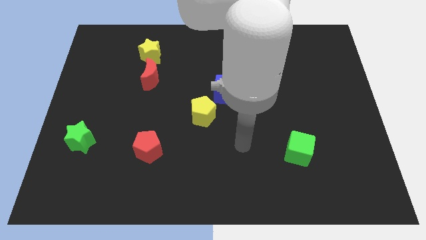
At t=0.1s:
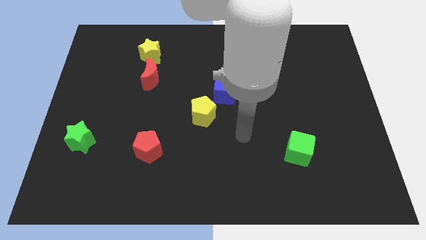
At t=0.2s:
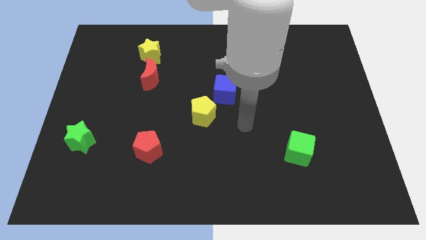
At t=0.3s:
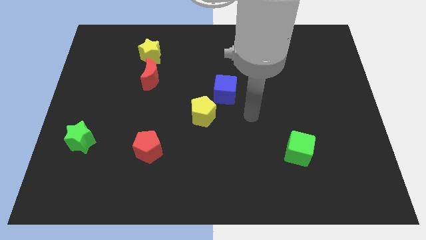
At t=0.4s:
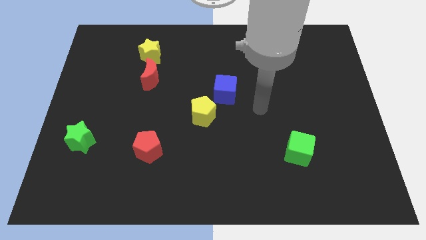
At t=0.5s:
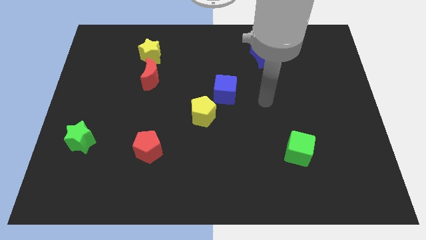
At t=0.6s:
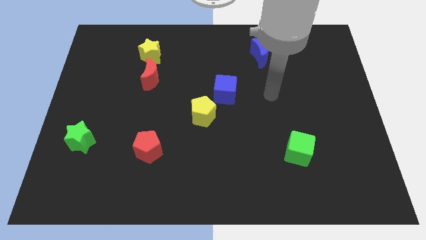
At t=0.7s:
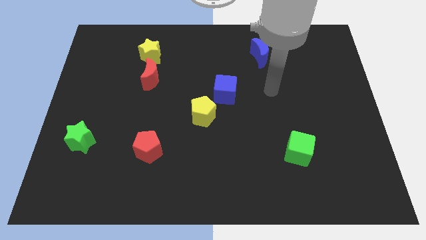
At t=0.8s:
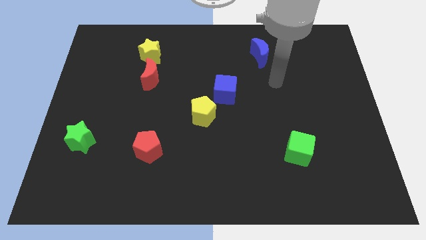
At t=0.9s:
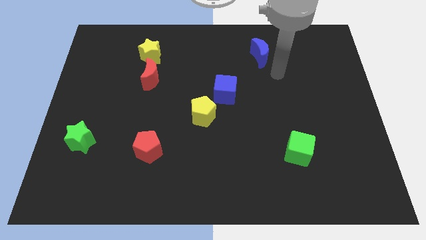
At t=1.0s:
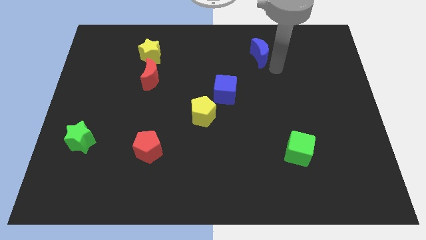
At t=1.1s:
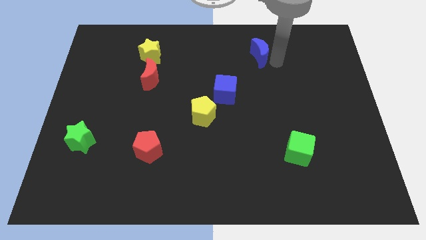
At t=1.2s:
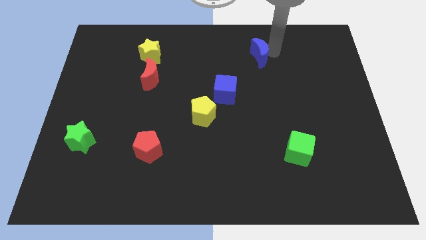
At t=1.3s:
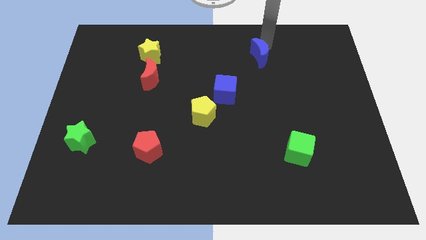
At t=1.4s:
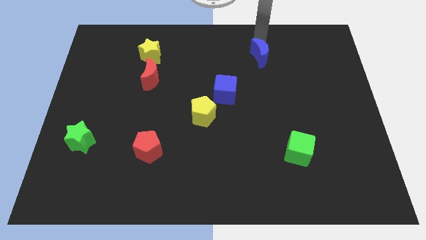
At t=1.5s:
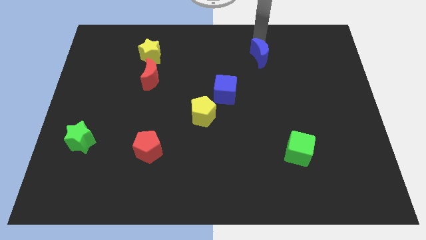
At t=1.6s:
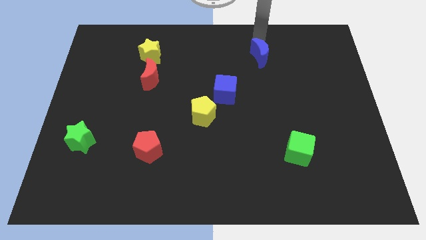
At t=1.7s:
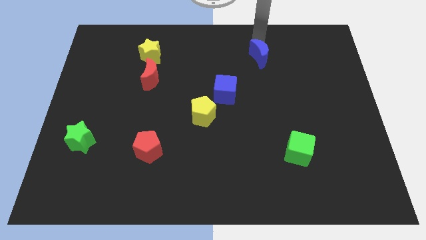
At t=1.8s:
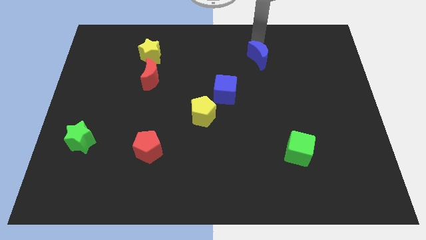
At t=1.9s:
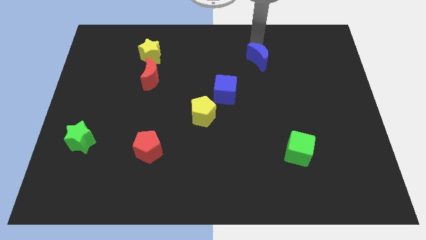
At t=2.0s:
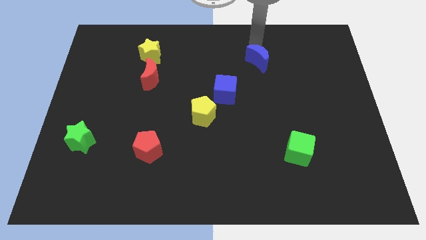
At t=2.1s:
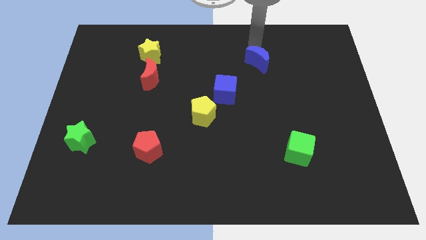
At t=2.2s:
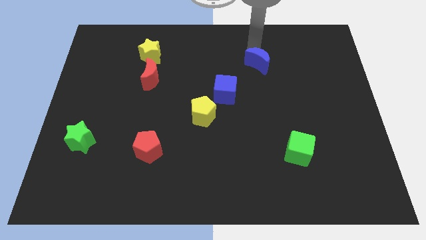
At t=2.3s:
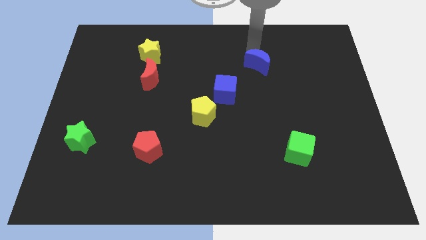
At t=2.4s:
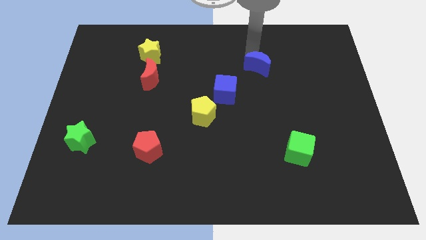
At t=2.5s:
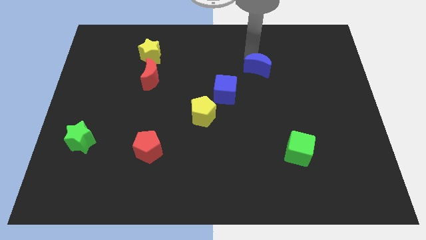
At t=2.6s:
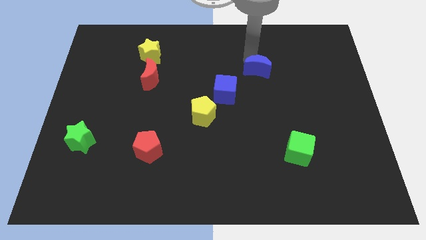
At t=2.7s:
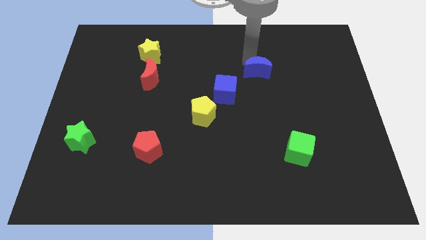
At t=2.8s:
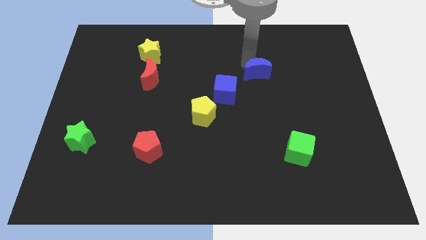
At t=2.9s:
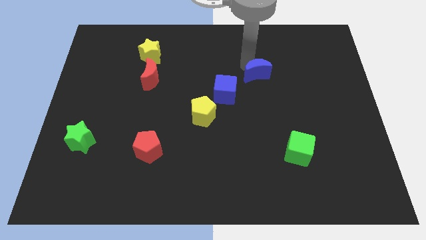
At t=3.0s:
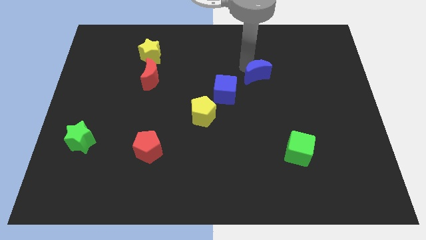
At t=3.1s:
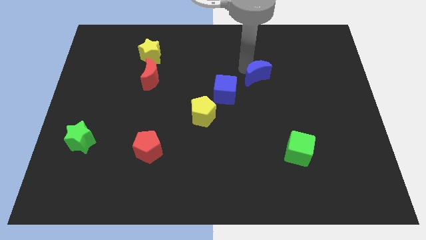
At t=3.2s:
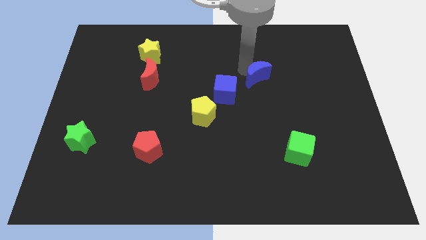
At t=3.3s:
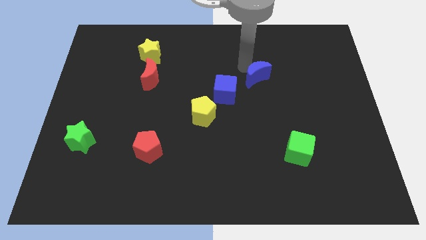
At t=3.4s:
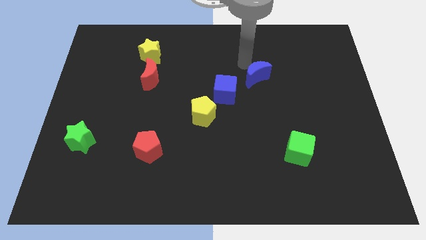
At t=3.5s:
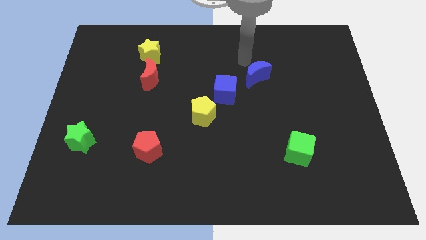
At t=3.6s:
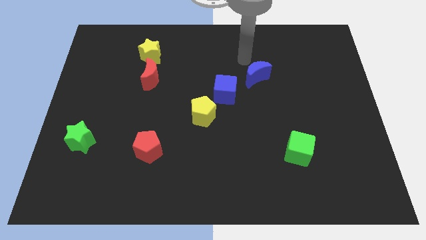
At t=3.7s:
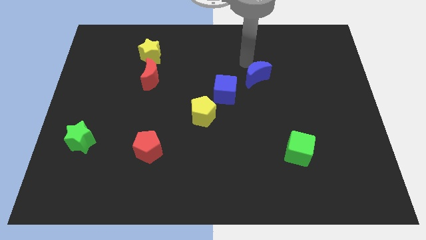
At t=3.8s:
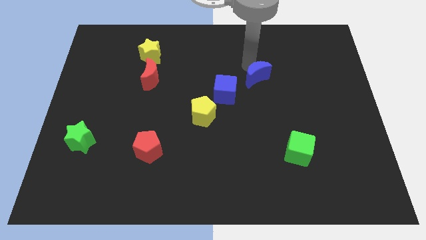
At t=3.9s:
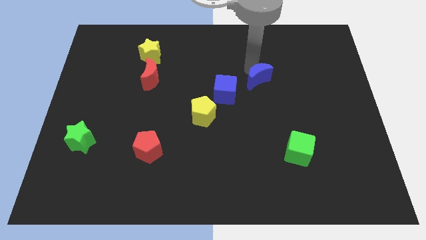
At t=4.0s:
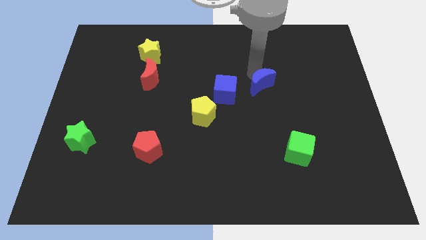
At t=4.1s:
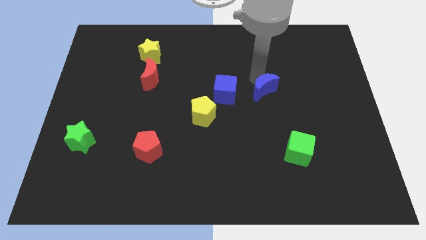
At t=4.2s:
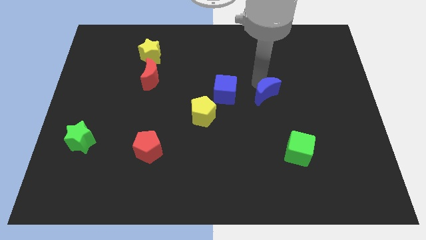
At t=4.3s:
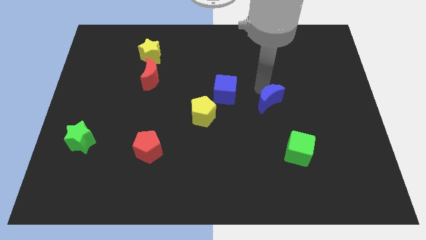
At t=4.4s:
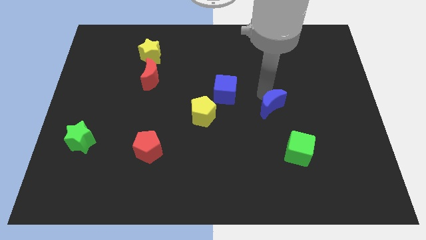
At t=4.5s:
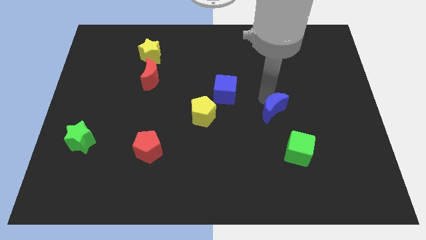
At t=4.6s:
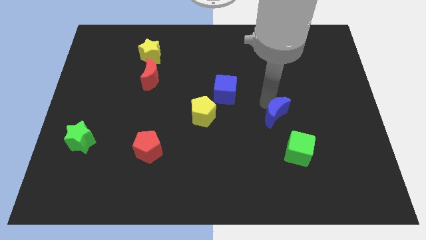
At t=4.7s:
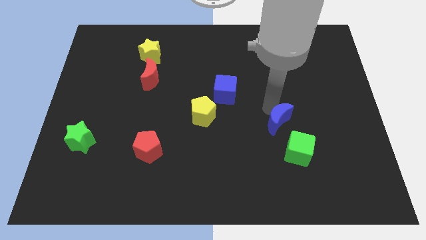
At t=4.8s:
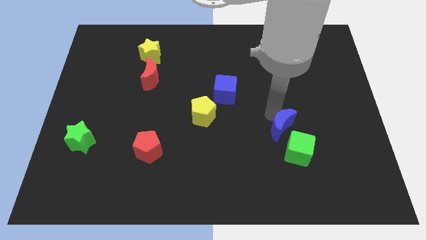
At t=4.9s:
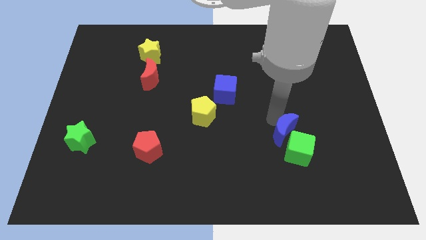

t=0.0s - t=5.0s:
push the blue moon towards the green cube

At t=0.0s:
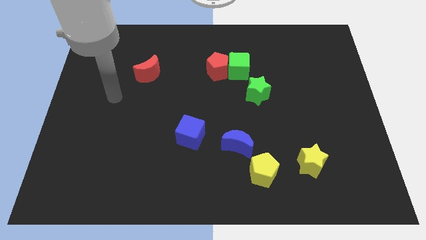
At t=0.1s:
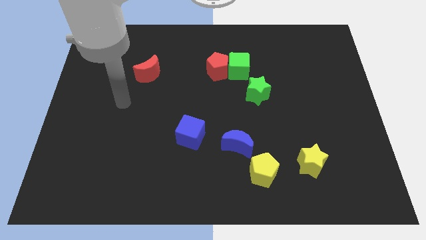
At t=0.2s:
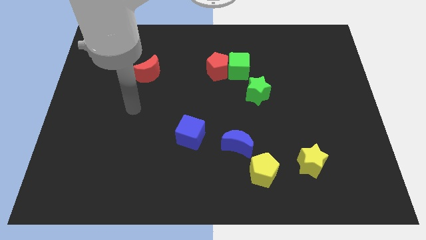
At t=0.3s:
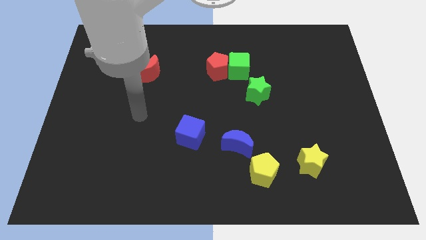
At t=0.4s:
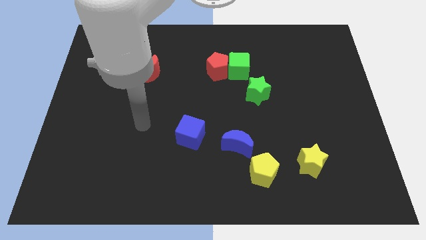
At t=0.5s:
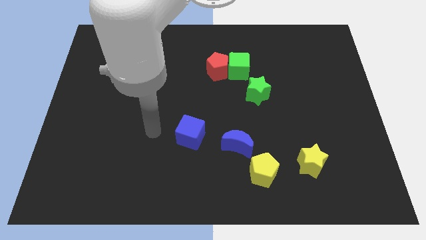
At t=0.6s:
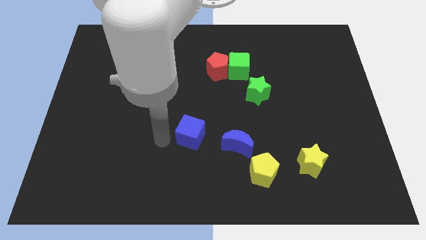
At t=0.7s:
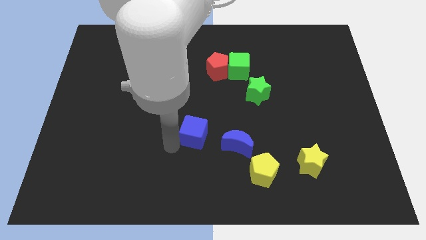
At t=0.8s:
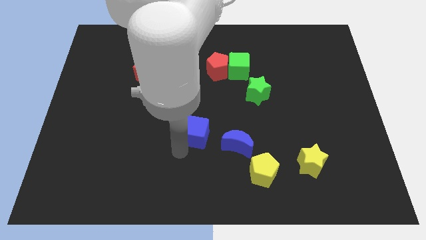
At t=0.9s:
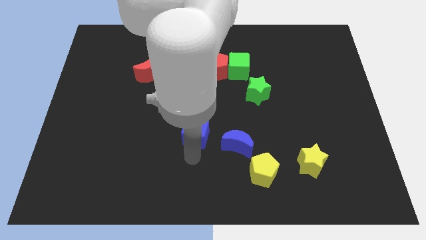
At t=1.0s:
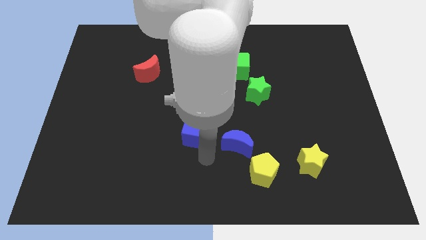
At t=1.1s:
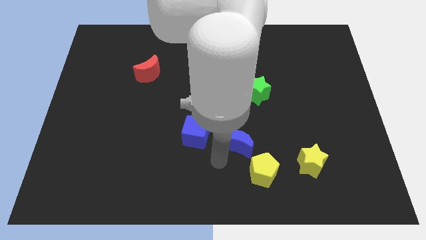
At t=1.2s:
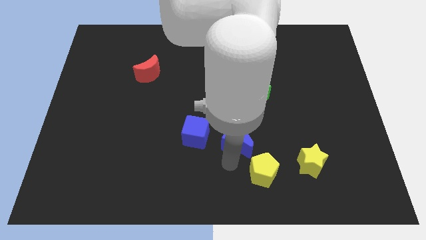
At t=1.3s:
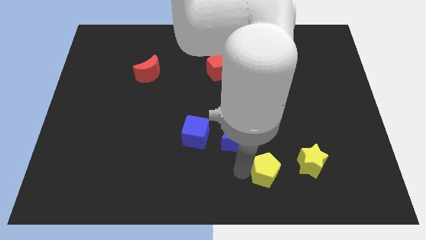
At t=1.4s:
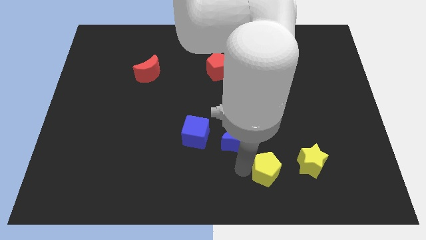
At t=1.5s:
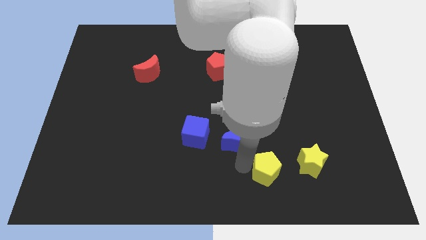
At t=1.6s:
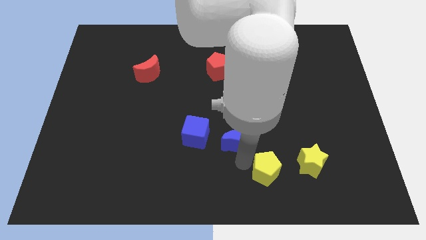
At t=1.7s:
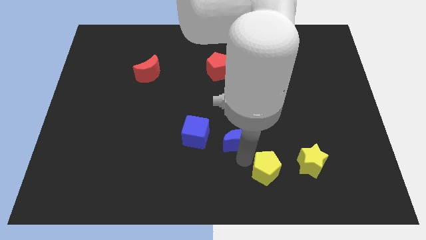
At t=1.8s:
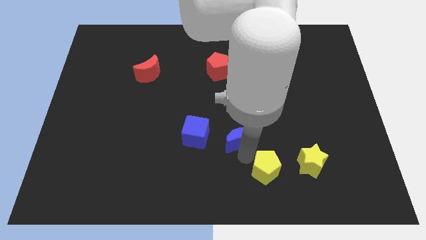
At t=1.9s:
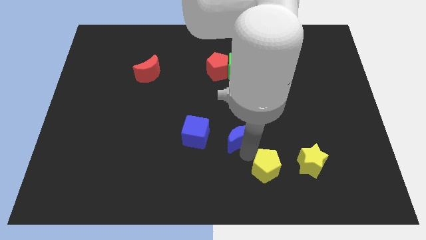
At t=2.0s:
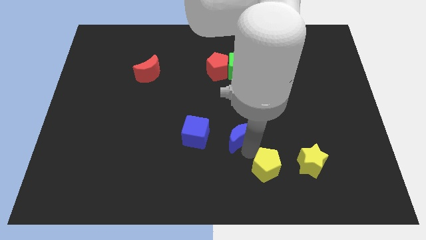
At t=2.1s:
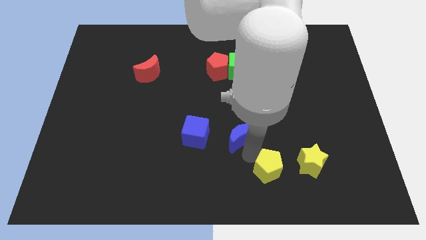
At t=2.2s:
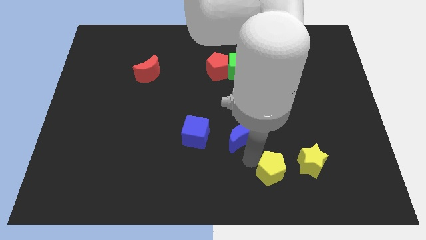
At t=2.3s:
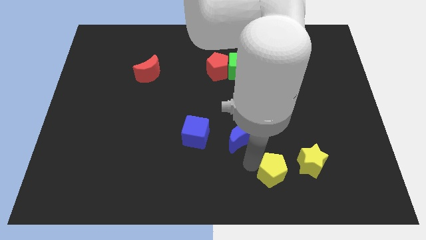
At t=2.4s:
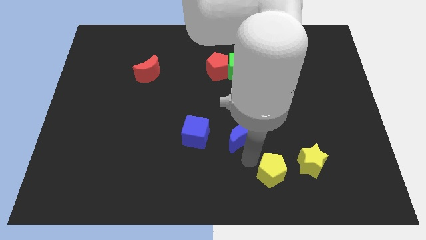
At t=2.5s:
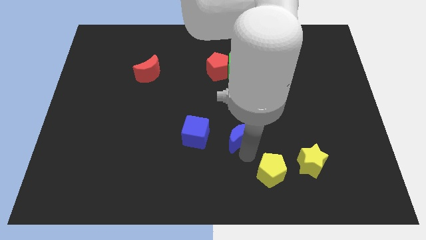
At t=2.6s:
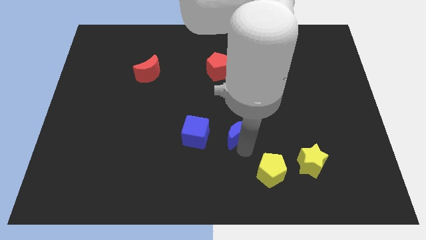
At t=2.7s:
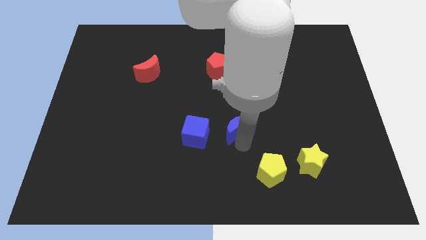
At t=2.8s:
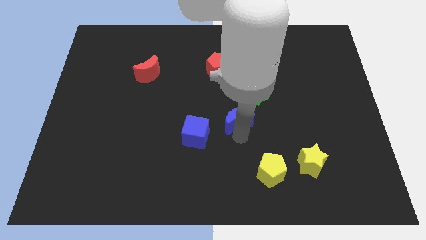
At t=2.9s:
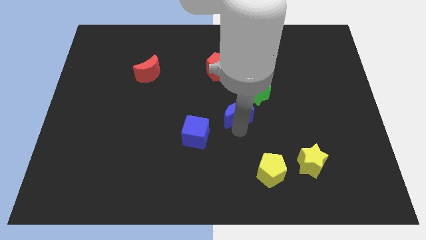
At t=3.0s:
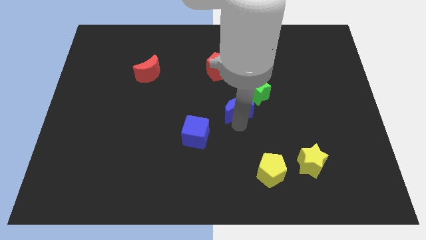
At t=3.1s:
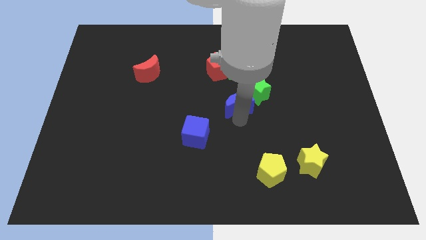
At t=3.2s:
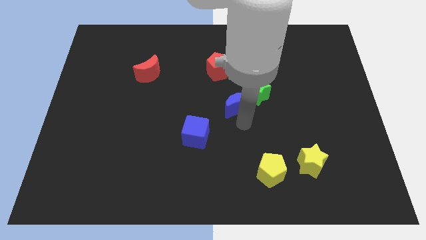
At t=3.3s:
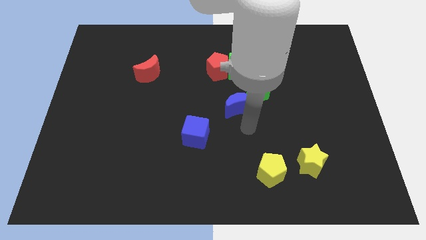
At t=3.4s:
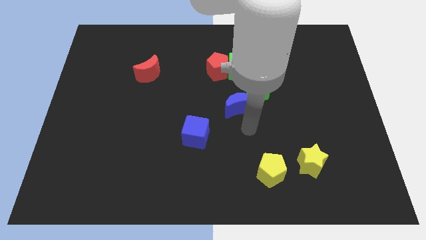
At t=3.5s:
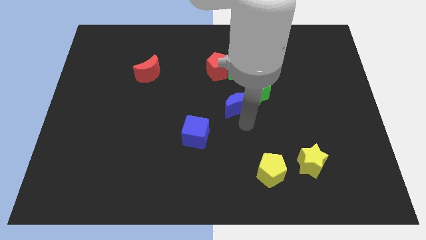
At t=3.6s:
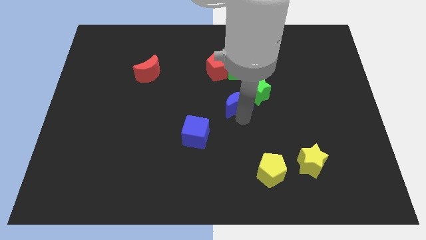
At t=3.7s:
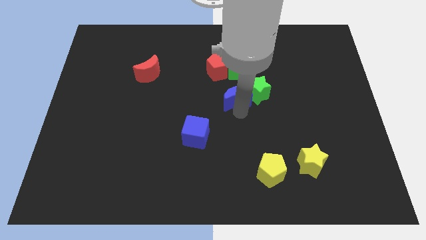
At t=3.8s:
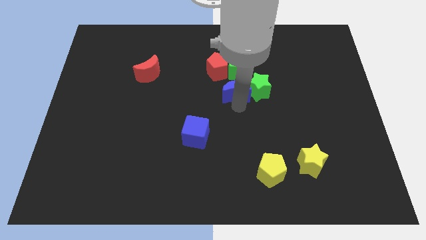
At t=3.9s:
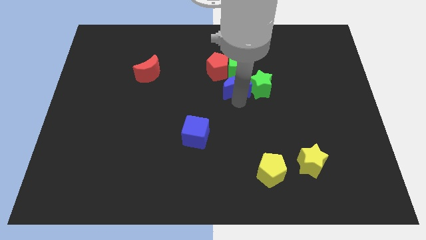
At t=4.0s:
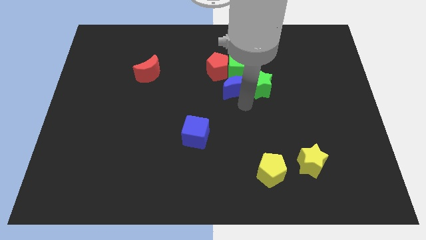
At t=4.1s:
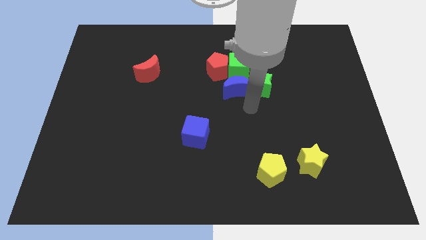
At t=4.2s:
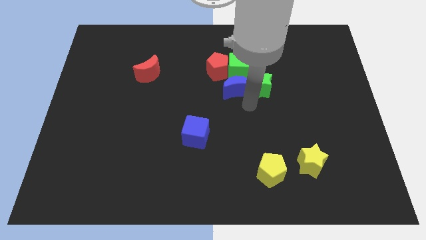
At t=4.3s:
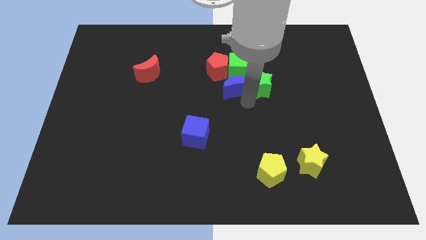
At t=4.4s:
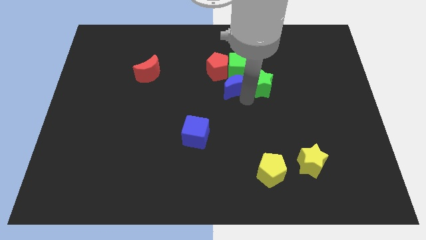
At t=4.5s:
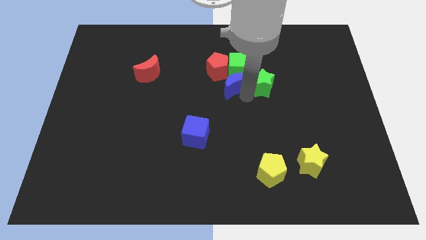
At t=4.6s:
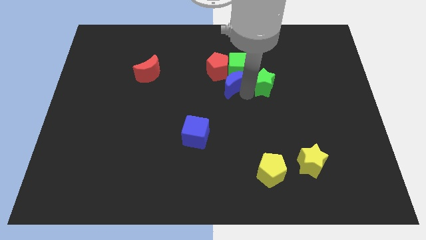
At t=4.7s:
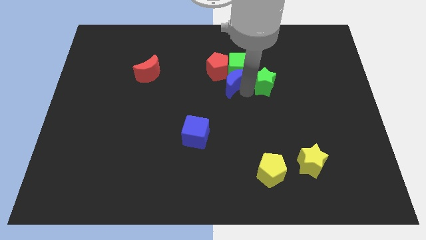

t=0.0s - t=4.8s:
push the blue moon close to the red pentagon
